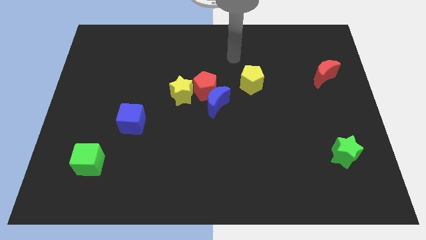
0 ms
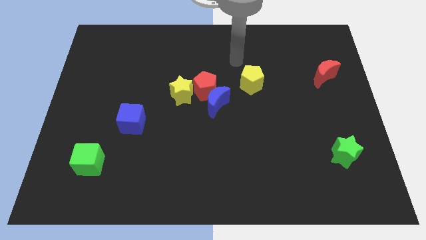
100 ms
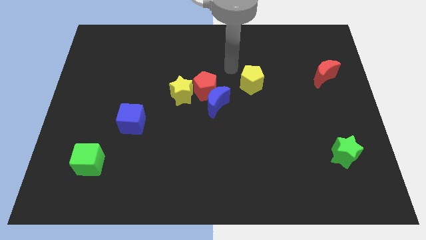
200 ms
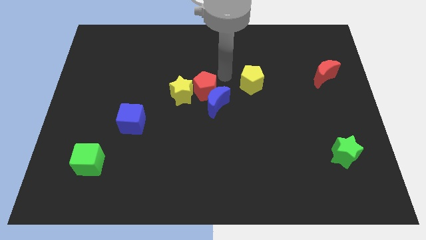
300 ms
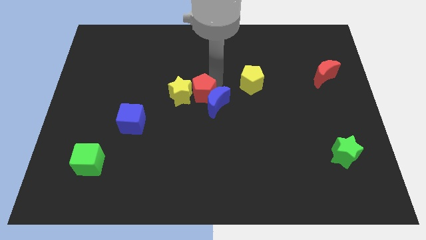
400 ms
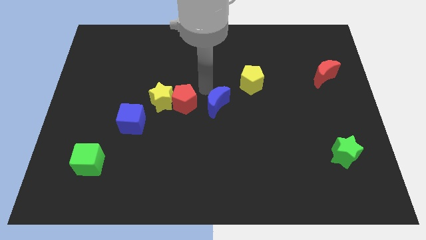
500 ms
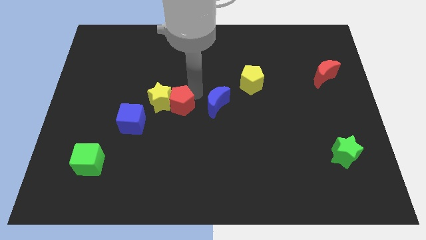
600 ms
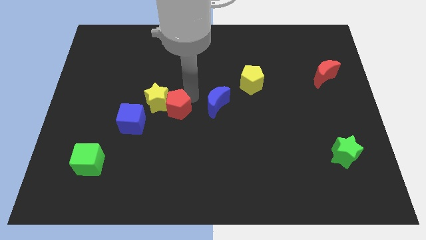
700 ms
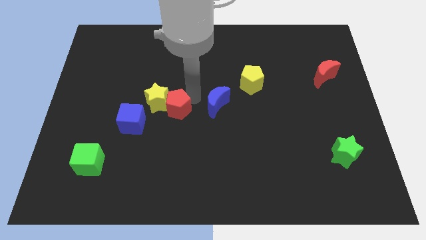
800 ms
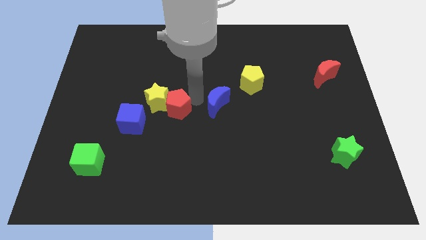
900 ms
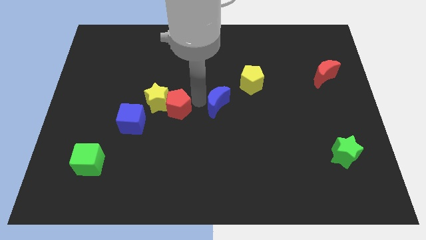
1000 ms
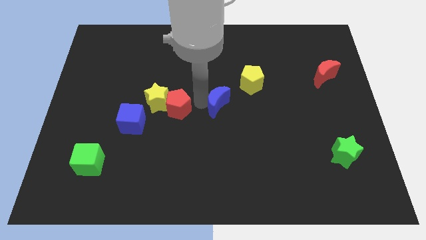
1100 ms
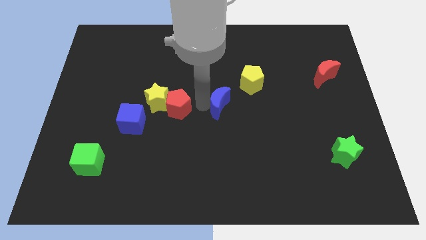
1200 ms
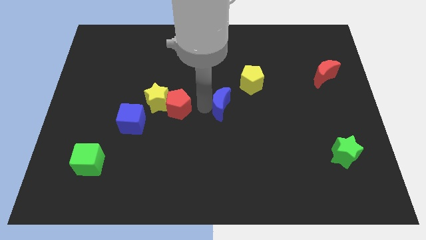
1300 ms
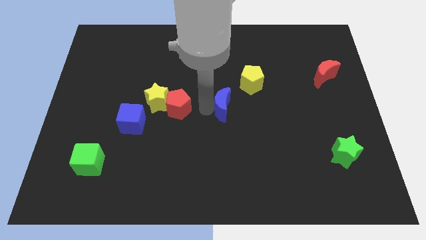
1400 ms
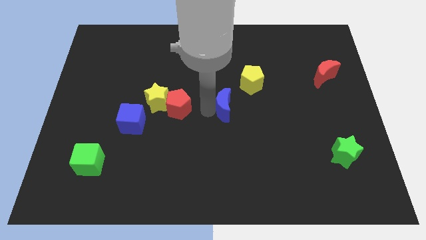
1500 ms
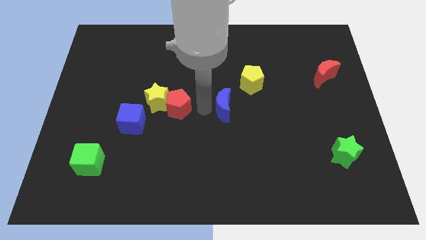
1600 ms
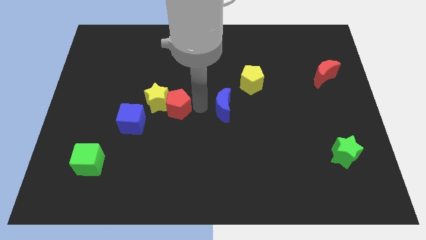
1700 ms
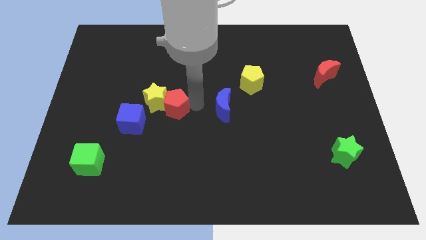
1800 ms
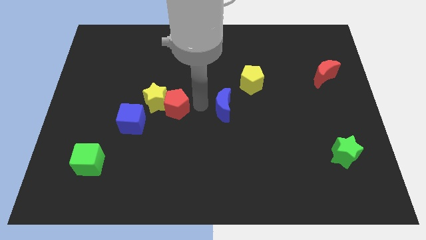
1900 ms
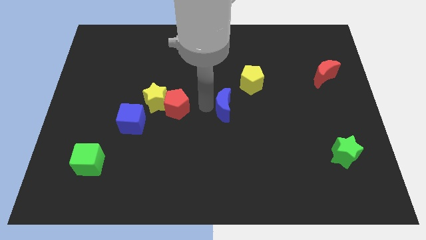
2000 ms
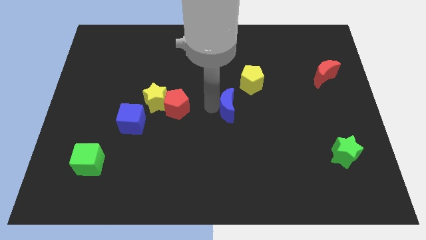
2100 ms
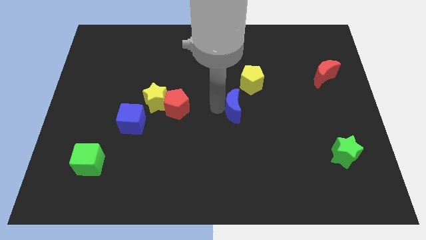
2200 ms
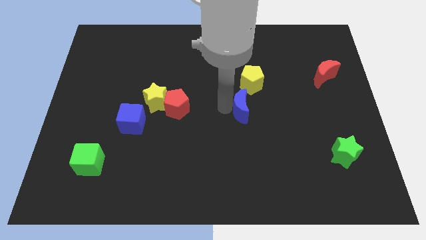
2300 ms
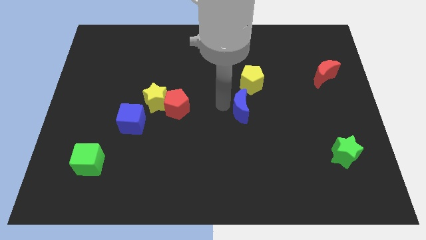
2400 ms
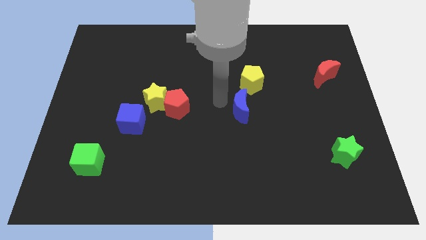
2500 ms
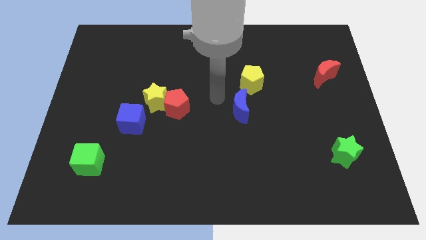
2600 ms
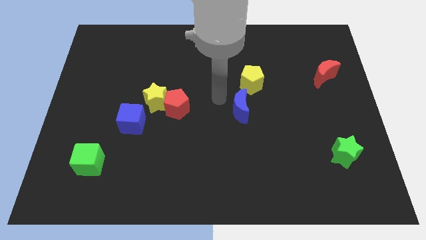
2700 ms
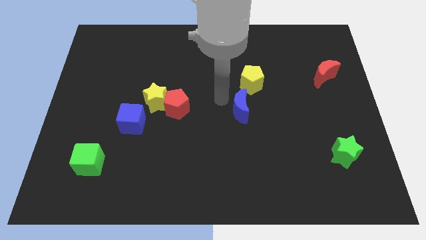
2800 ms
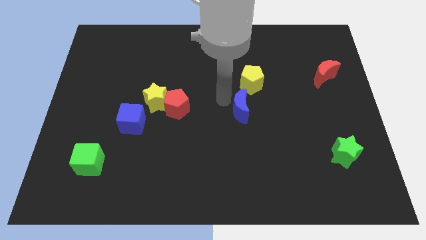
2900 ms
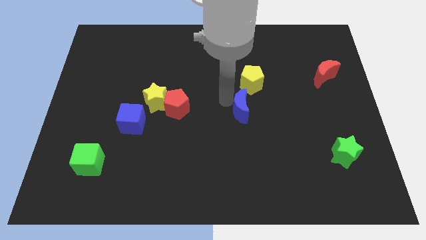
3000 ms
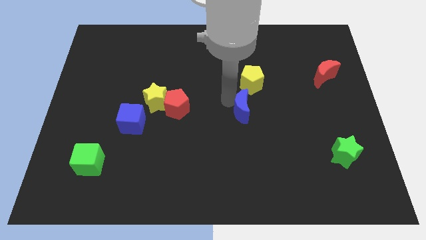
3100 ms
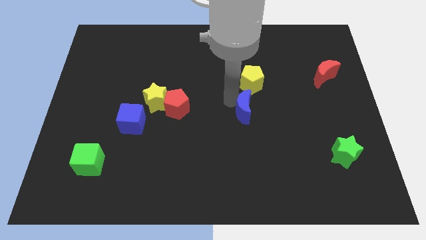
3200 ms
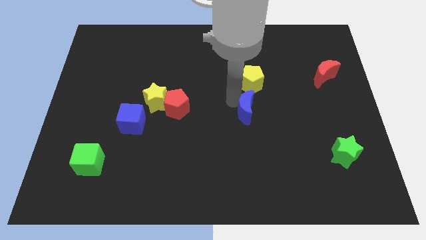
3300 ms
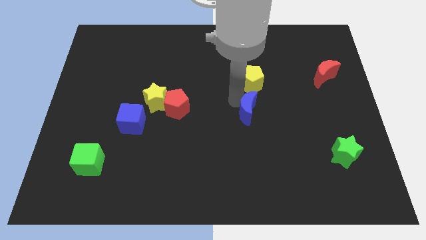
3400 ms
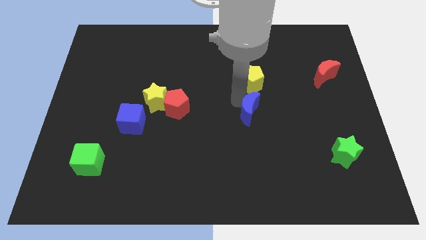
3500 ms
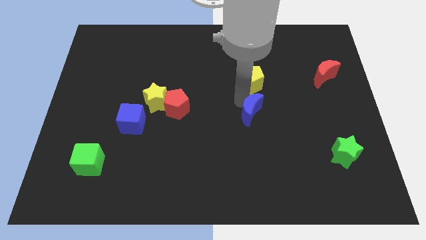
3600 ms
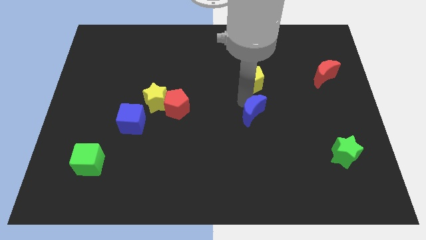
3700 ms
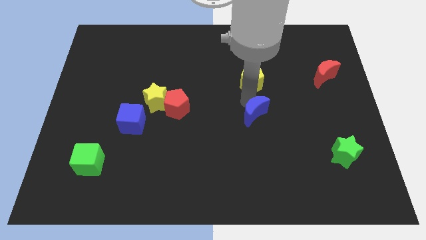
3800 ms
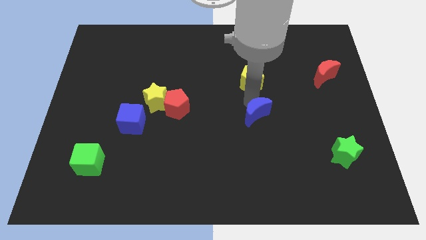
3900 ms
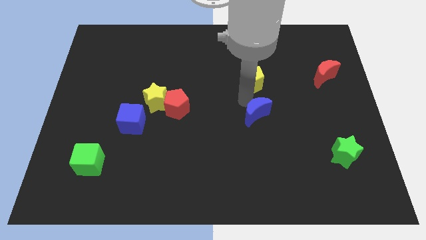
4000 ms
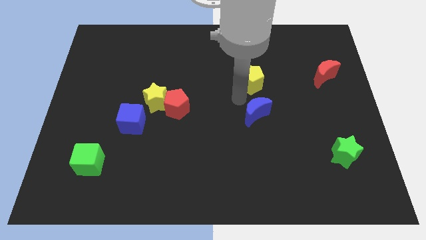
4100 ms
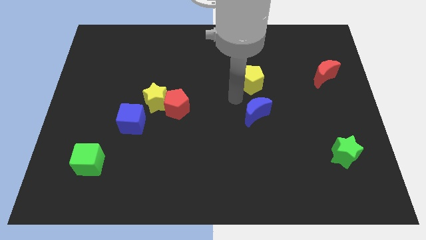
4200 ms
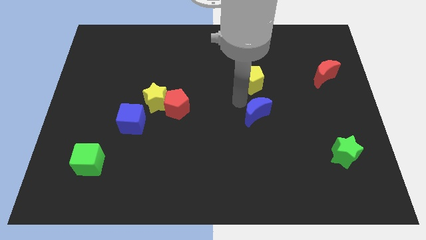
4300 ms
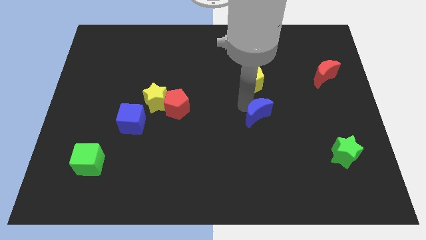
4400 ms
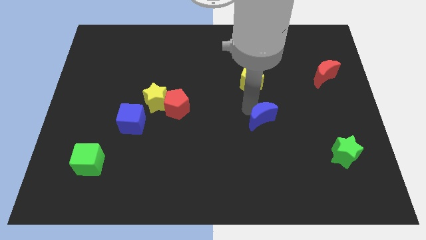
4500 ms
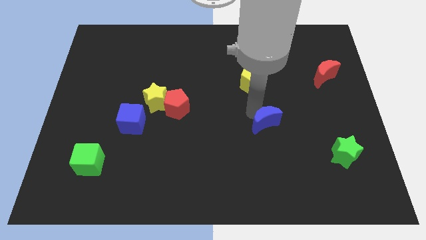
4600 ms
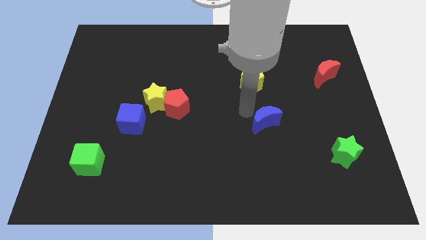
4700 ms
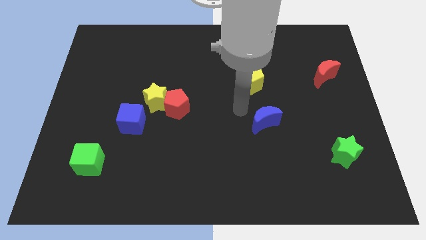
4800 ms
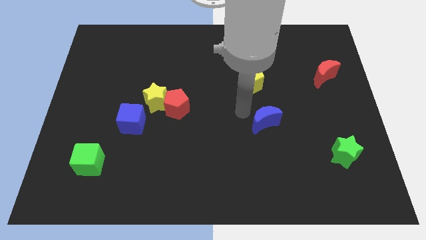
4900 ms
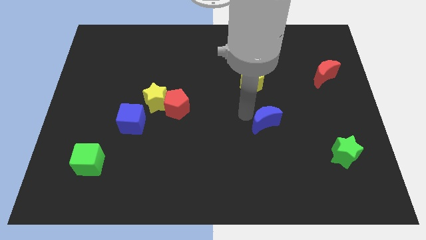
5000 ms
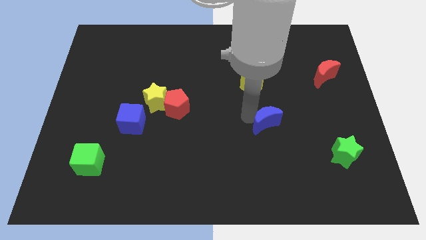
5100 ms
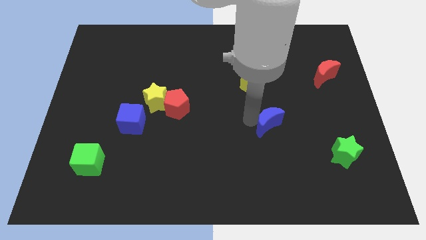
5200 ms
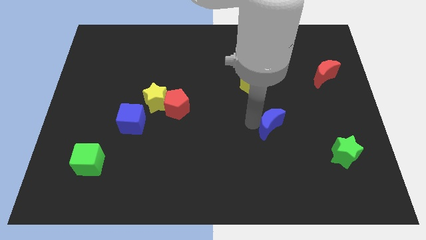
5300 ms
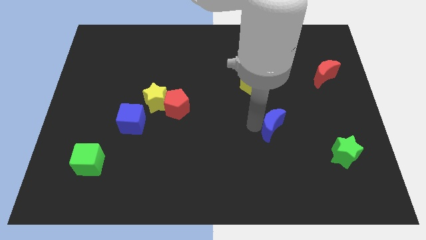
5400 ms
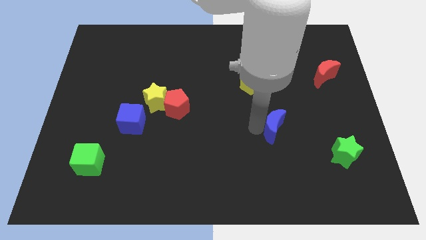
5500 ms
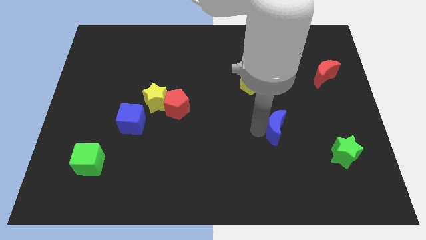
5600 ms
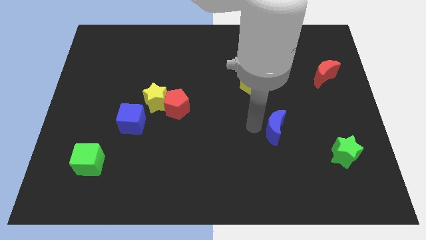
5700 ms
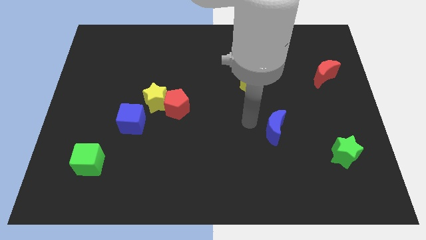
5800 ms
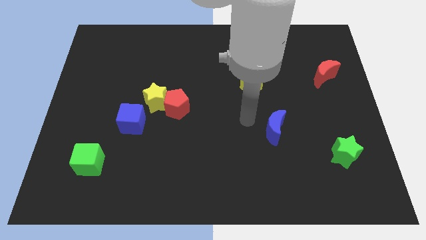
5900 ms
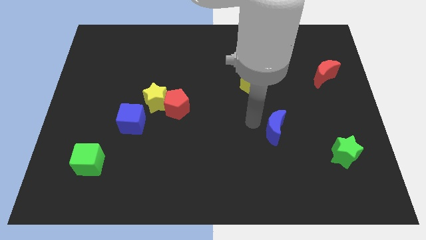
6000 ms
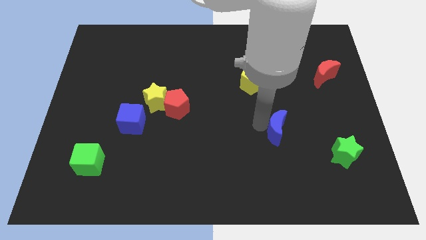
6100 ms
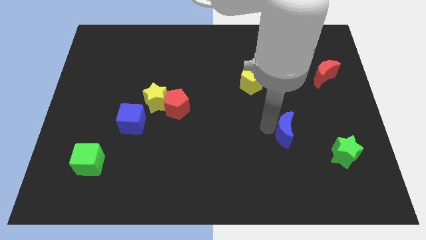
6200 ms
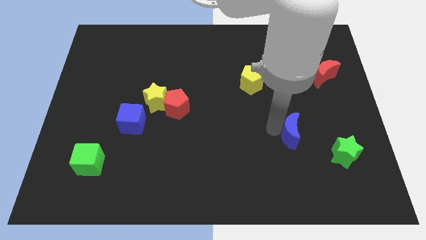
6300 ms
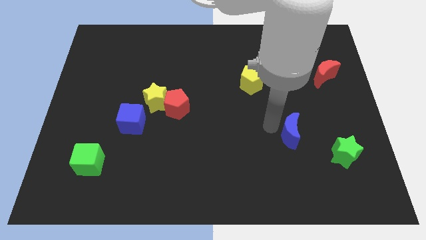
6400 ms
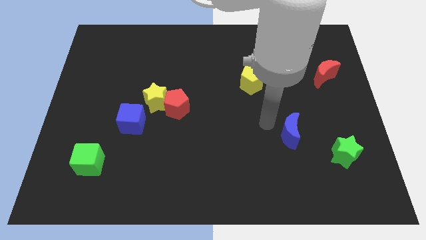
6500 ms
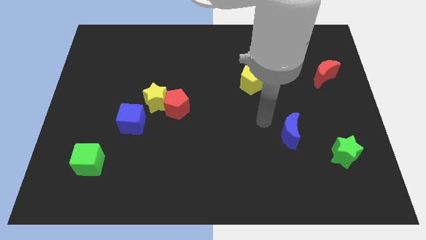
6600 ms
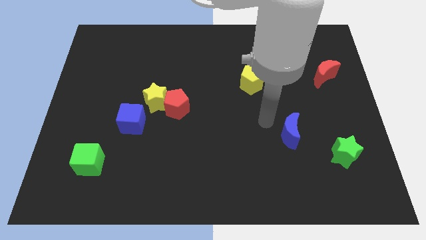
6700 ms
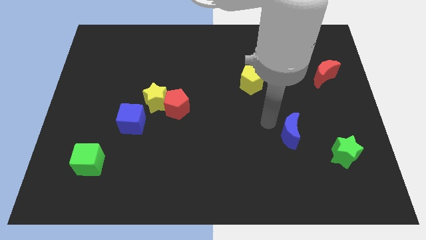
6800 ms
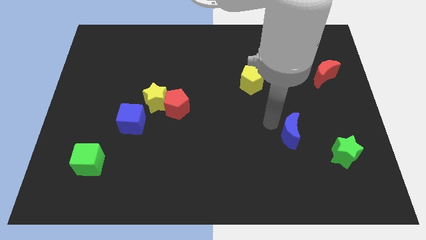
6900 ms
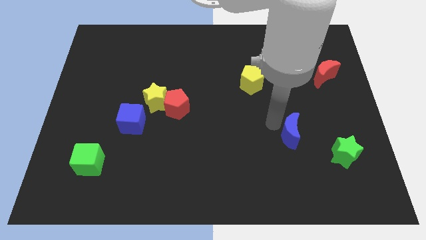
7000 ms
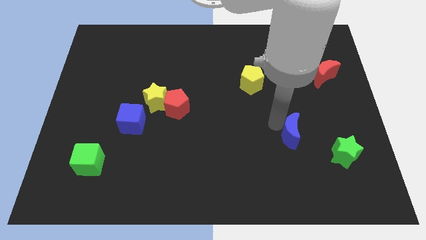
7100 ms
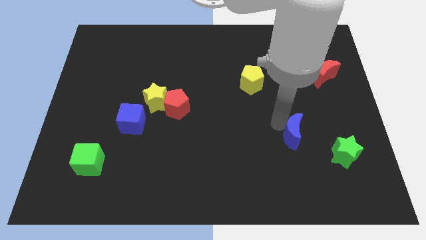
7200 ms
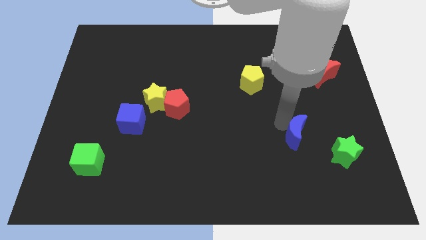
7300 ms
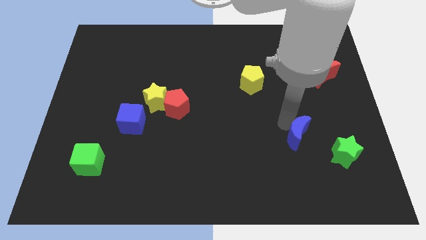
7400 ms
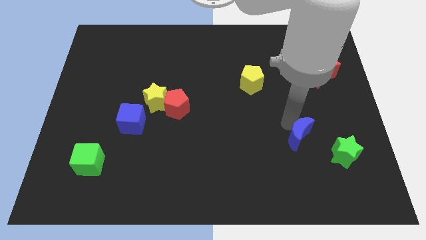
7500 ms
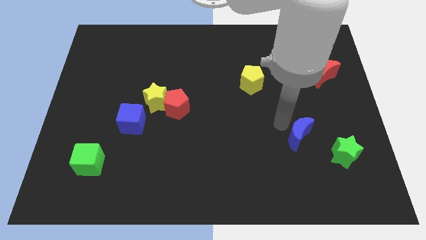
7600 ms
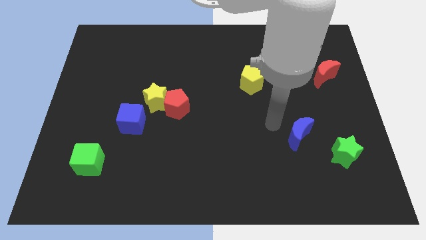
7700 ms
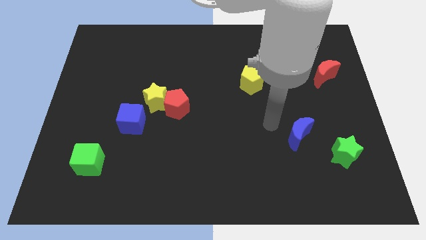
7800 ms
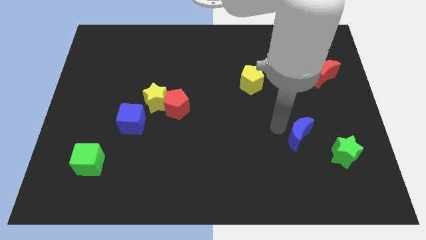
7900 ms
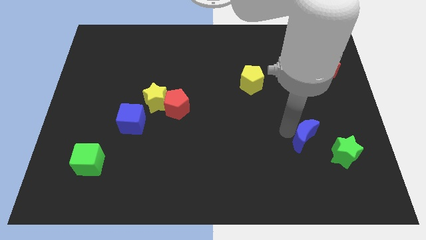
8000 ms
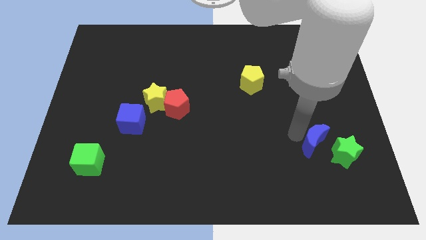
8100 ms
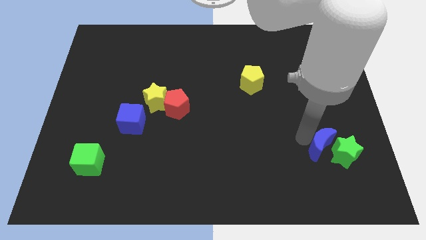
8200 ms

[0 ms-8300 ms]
slide the blue moon next to the green star
